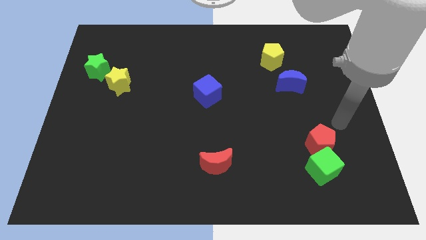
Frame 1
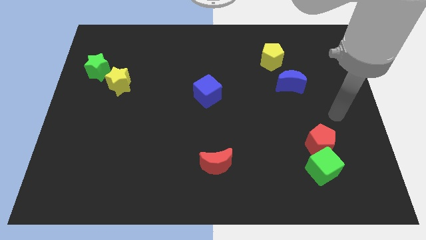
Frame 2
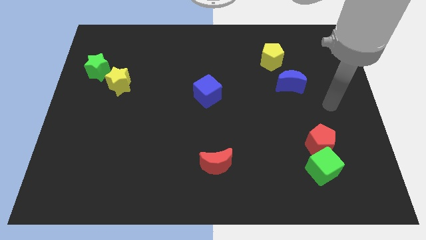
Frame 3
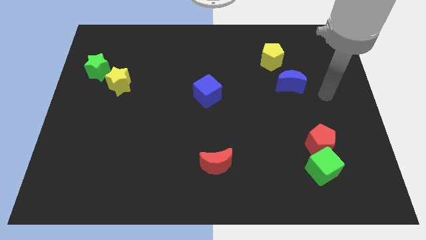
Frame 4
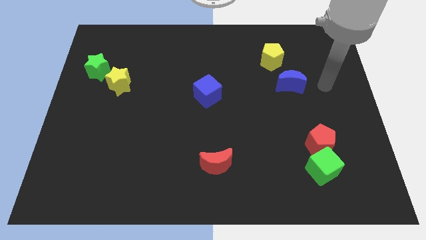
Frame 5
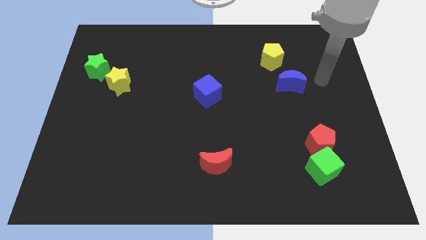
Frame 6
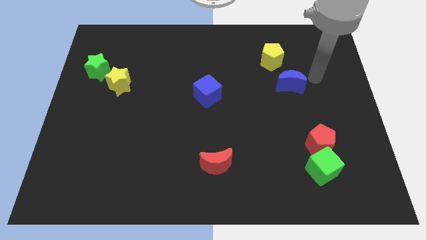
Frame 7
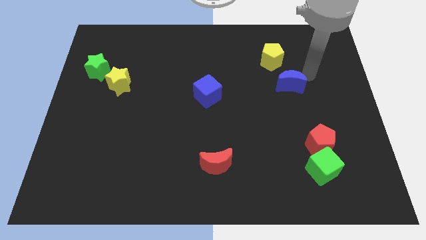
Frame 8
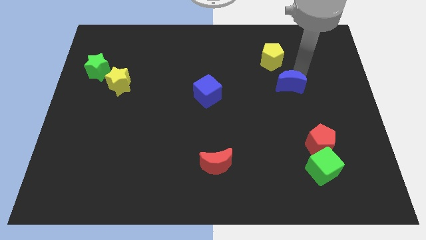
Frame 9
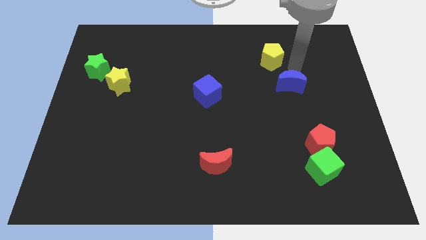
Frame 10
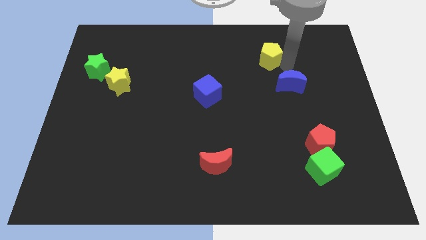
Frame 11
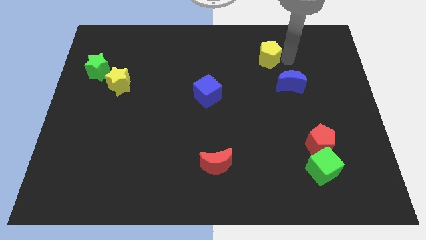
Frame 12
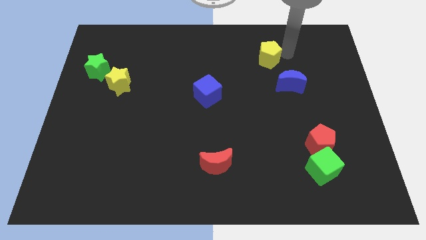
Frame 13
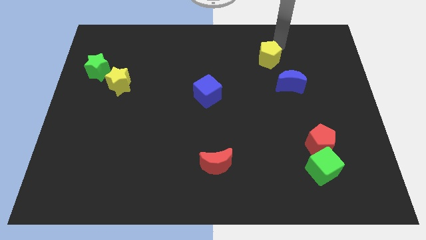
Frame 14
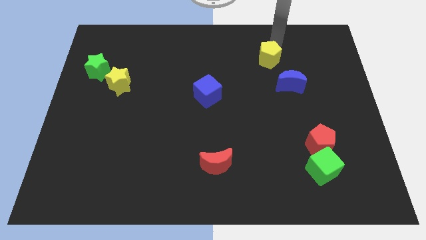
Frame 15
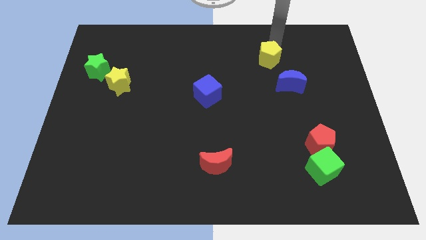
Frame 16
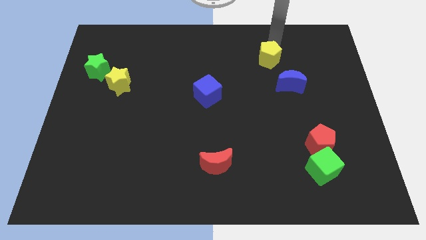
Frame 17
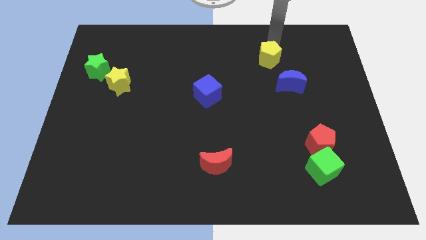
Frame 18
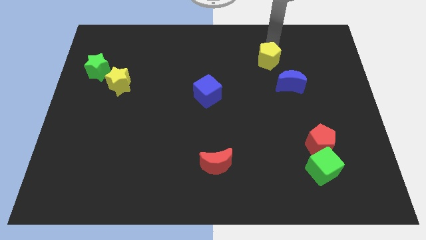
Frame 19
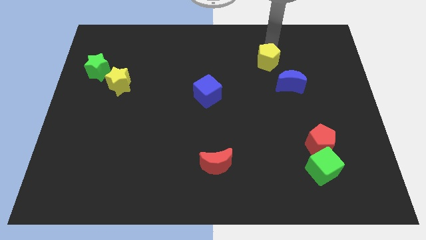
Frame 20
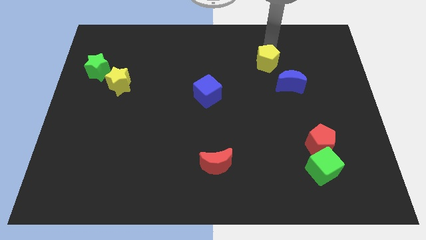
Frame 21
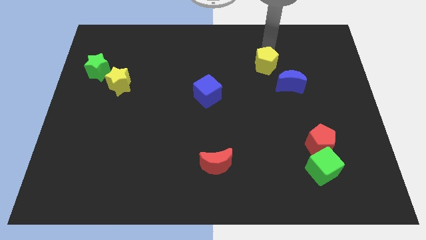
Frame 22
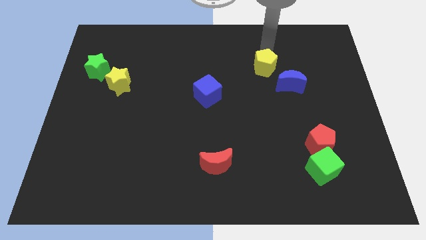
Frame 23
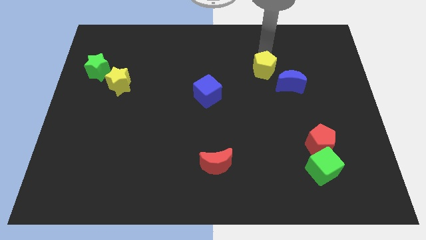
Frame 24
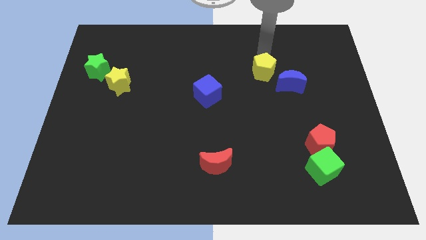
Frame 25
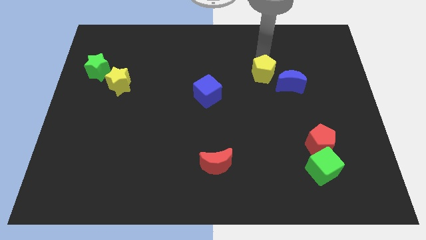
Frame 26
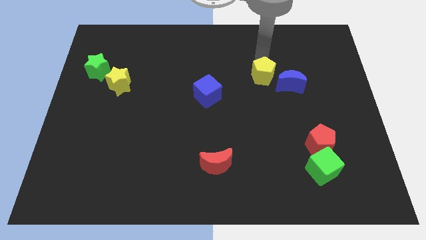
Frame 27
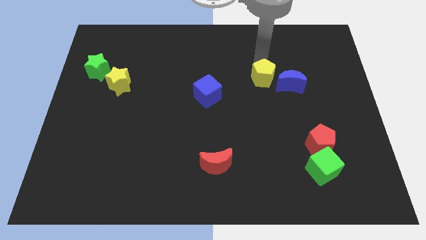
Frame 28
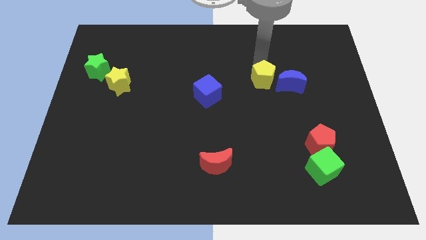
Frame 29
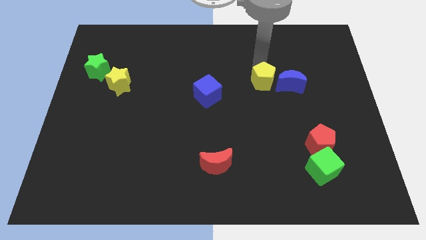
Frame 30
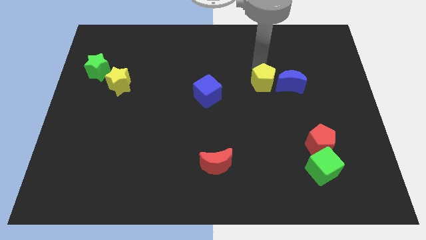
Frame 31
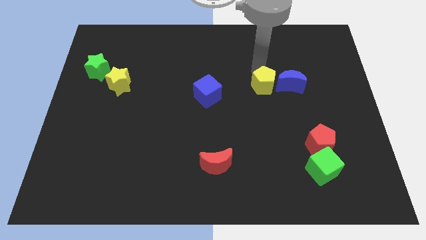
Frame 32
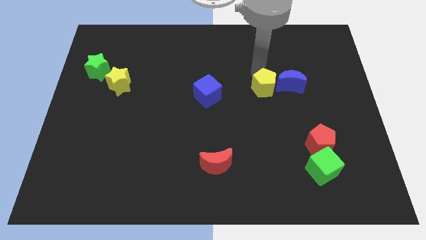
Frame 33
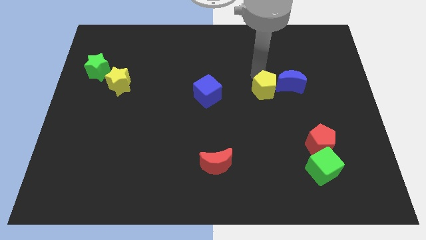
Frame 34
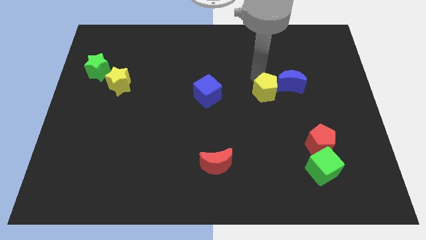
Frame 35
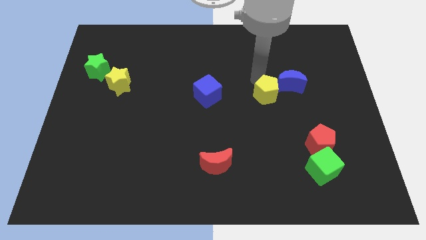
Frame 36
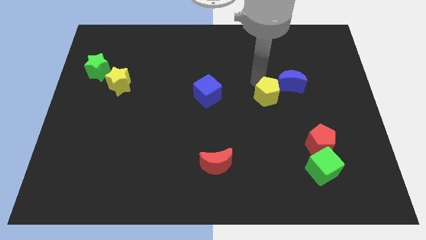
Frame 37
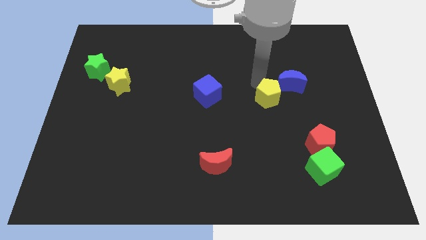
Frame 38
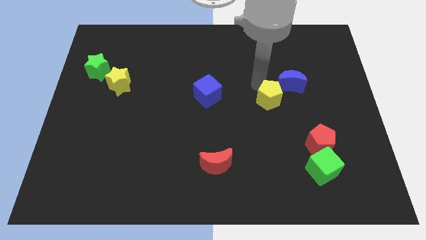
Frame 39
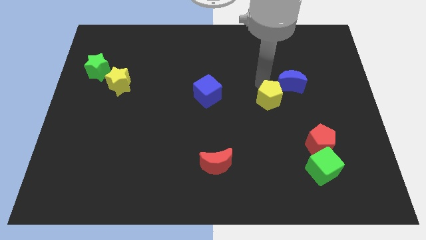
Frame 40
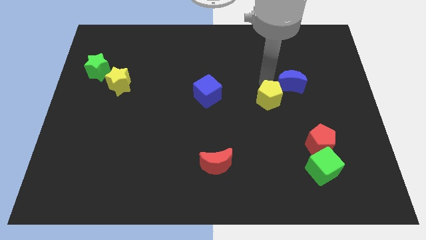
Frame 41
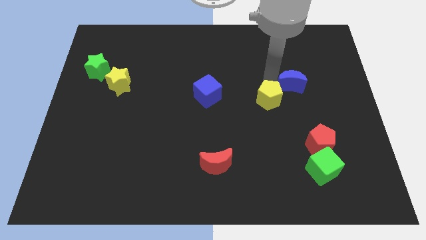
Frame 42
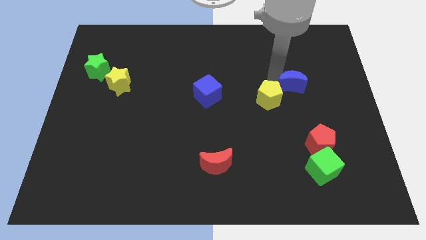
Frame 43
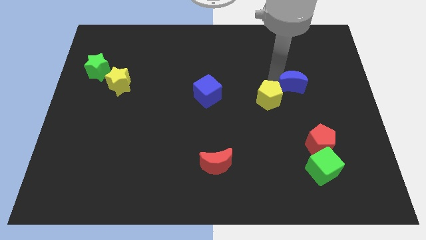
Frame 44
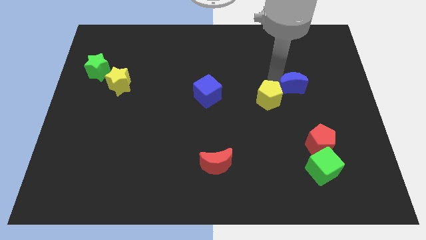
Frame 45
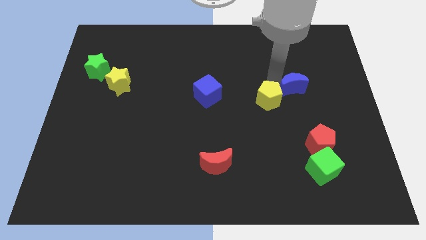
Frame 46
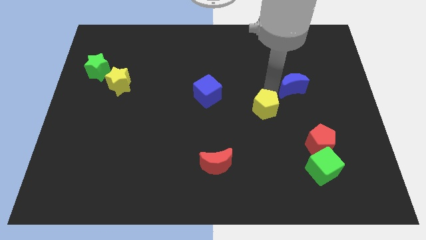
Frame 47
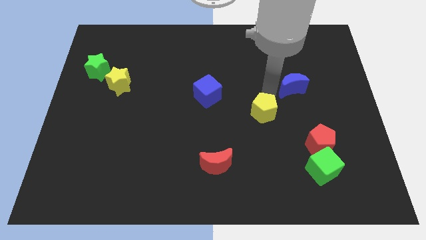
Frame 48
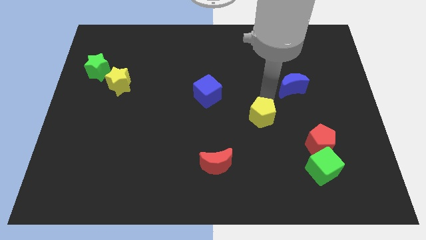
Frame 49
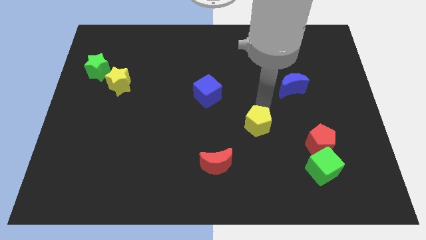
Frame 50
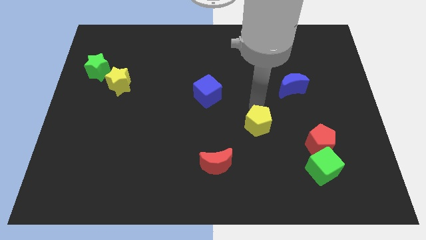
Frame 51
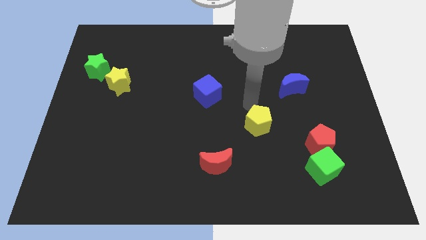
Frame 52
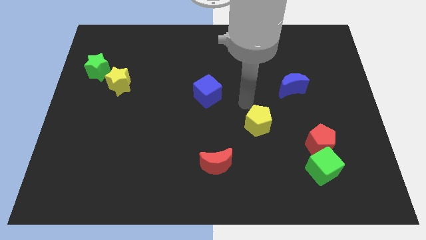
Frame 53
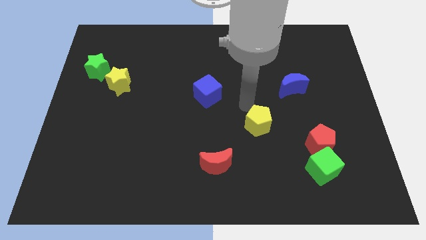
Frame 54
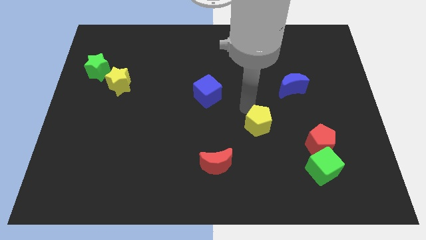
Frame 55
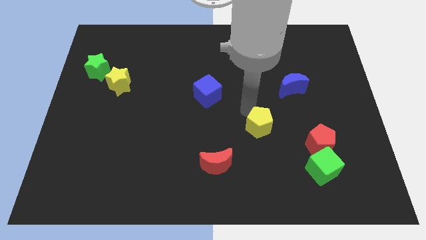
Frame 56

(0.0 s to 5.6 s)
move the yellow pentagon downwards

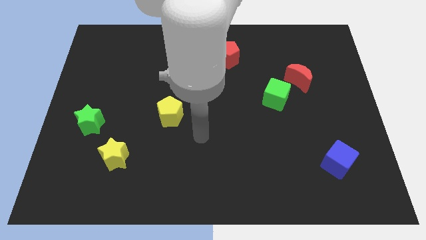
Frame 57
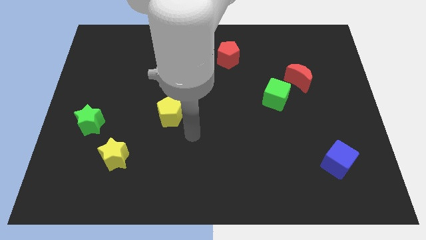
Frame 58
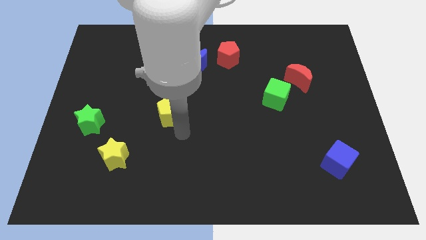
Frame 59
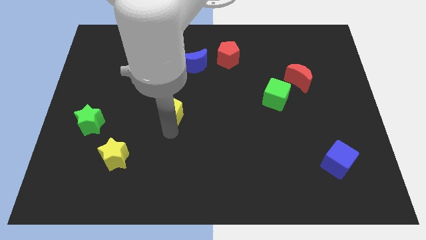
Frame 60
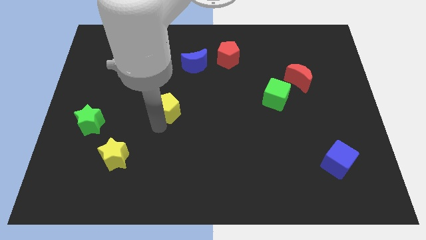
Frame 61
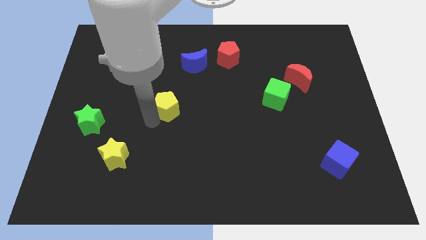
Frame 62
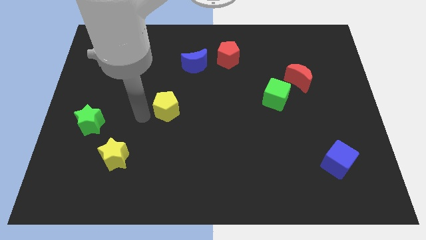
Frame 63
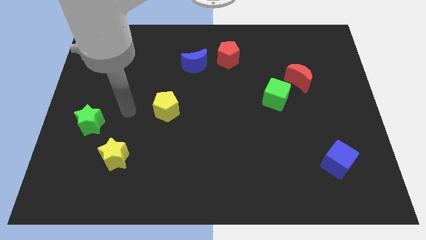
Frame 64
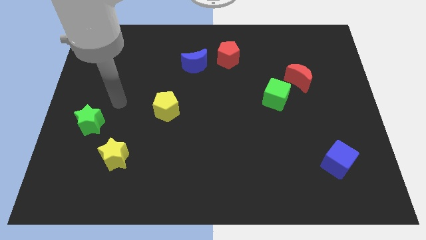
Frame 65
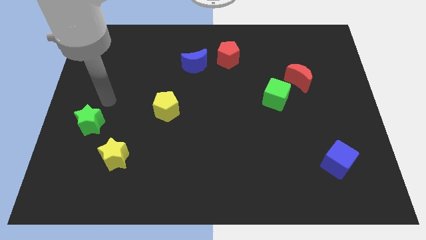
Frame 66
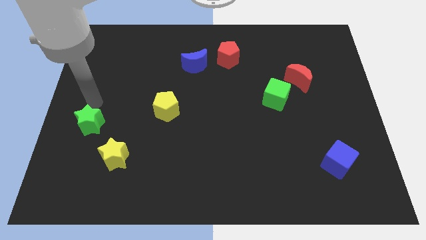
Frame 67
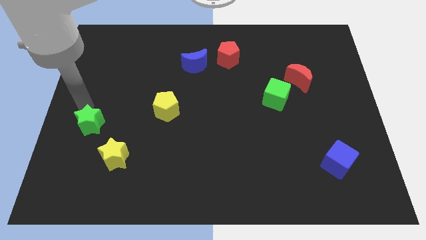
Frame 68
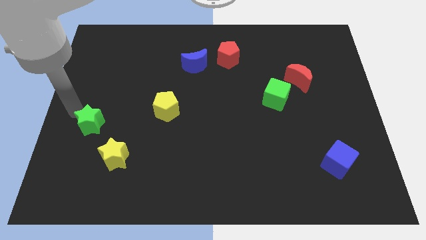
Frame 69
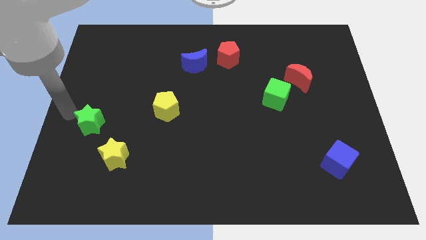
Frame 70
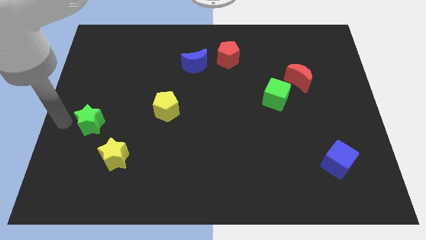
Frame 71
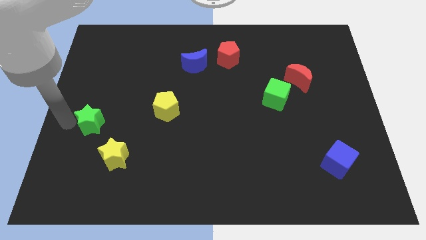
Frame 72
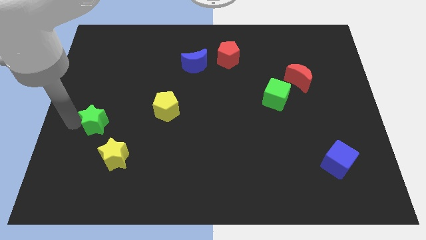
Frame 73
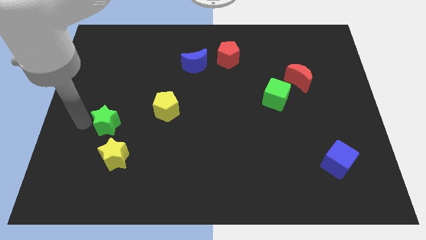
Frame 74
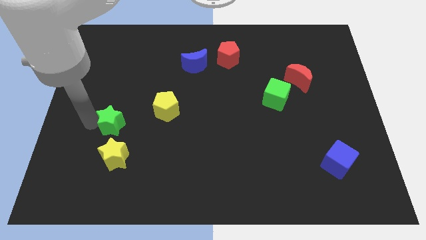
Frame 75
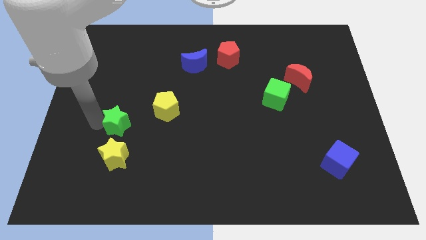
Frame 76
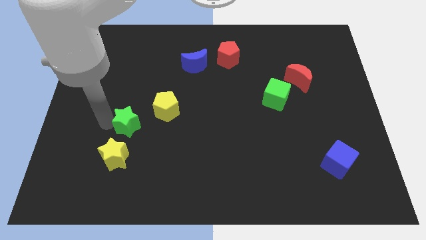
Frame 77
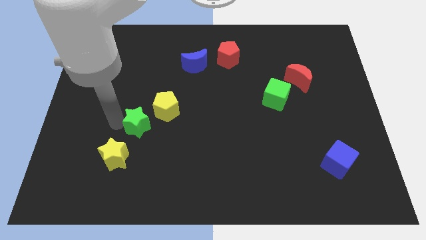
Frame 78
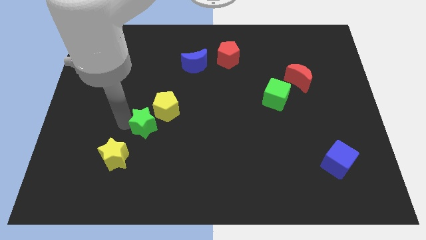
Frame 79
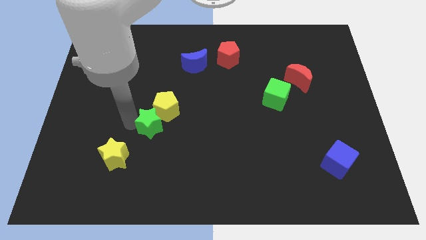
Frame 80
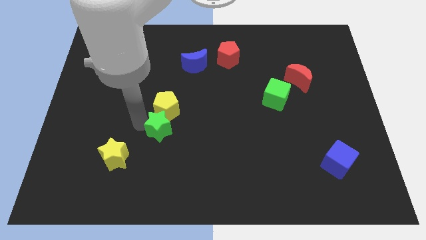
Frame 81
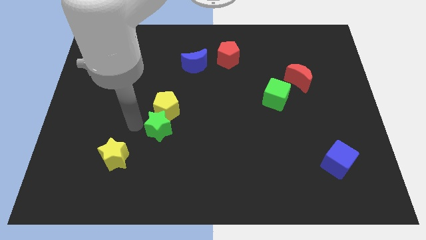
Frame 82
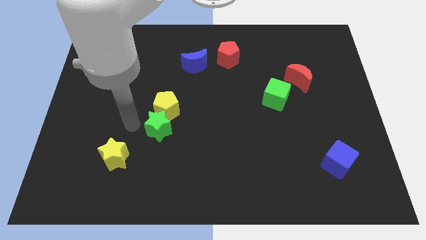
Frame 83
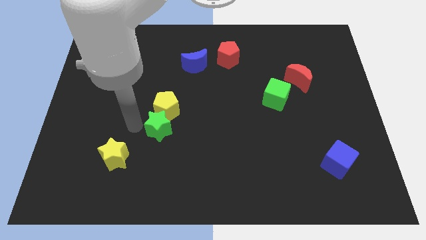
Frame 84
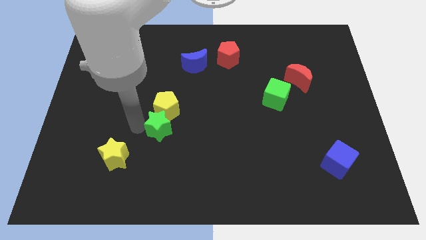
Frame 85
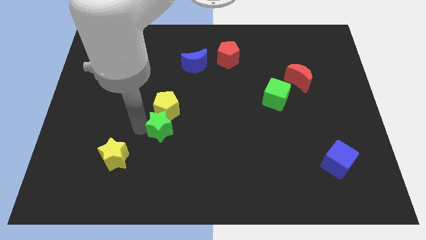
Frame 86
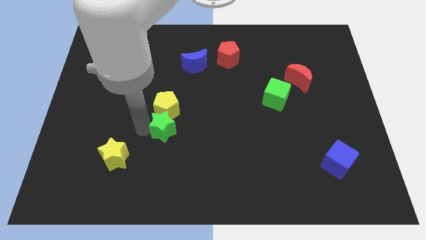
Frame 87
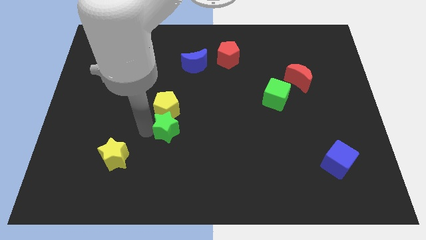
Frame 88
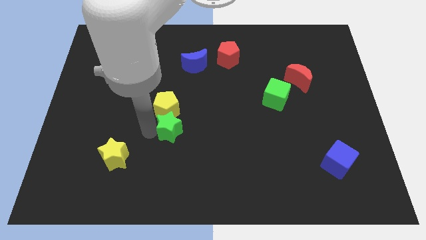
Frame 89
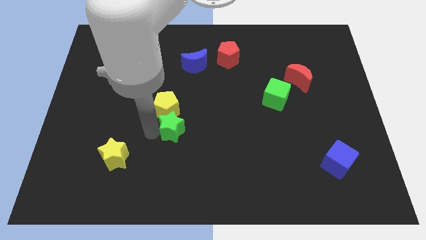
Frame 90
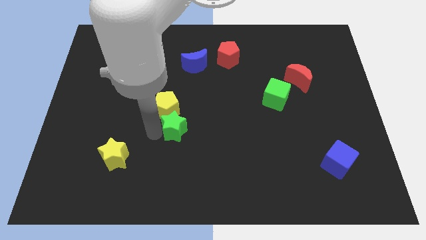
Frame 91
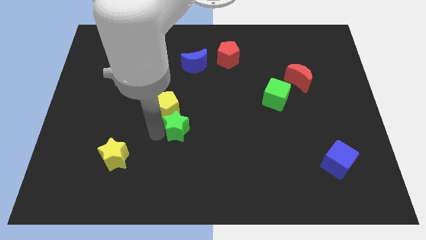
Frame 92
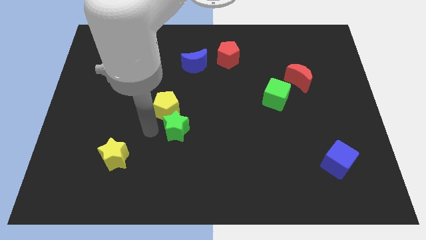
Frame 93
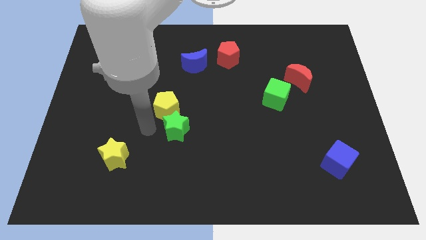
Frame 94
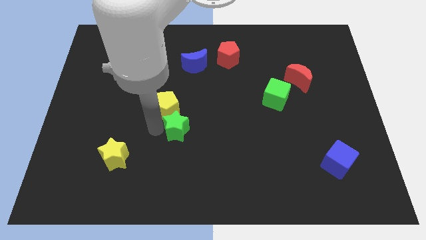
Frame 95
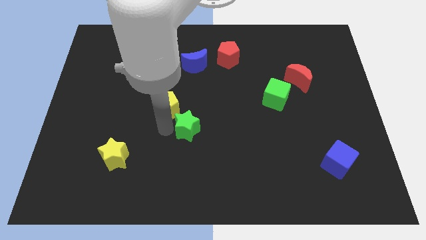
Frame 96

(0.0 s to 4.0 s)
move the green star to the right
